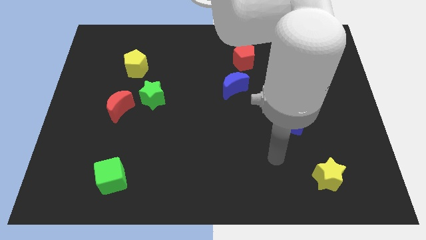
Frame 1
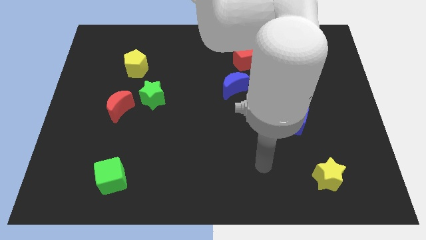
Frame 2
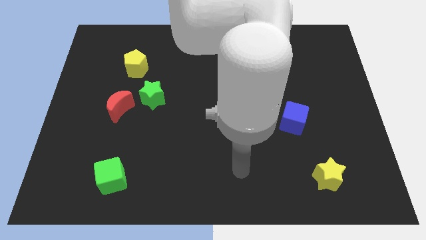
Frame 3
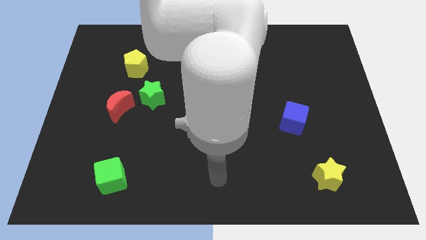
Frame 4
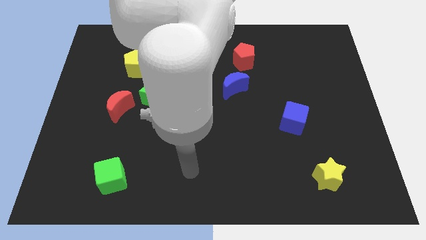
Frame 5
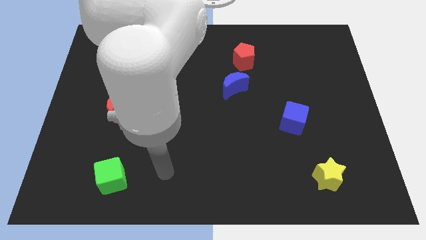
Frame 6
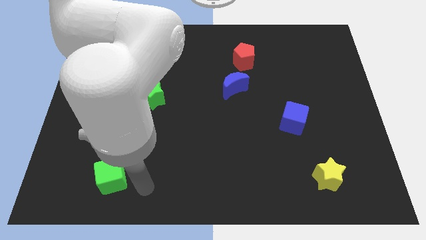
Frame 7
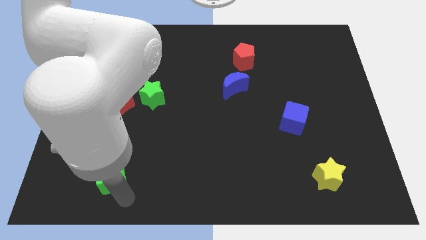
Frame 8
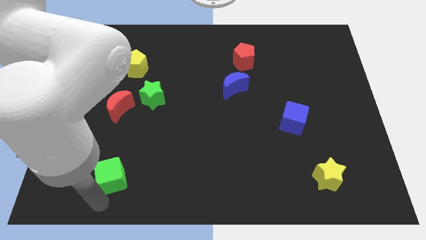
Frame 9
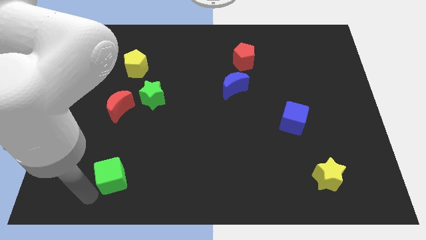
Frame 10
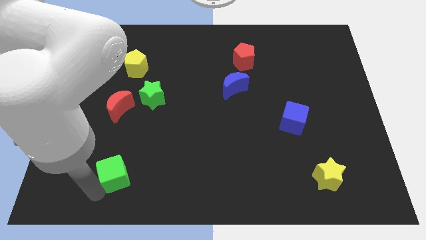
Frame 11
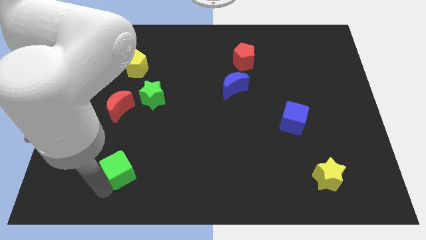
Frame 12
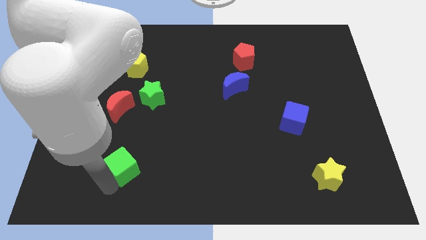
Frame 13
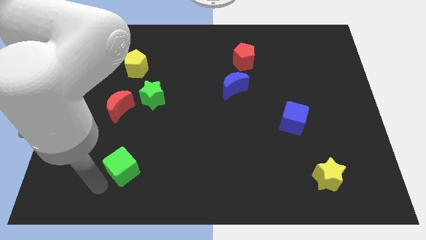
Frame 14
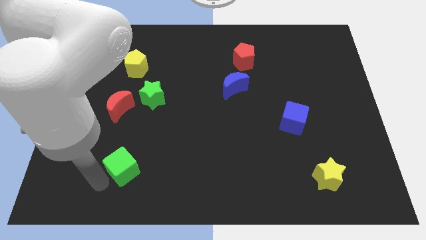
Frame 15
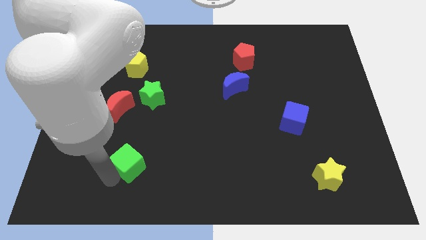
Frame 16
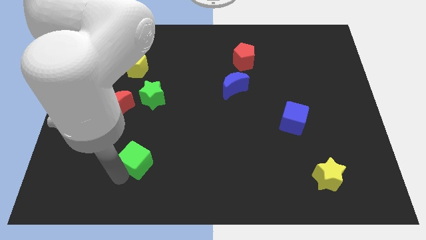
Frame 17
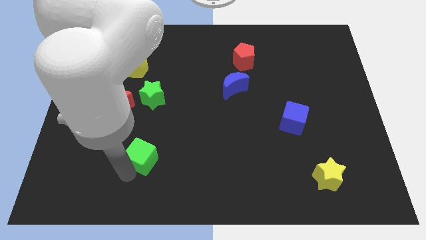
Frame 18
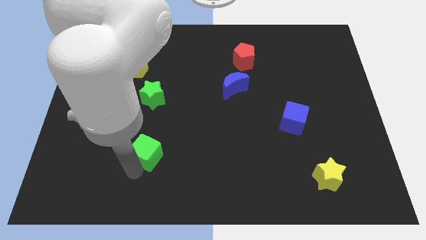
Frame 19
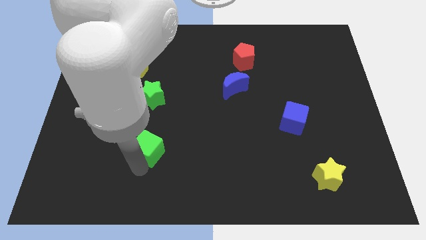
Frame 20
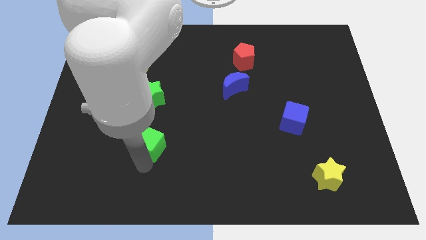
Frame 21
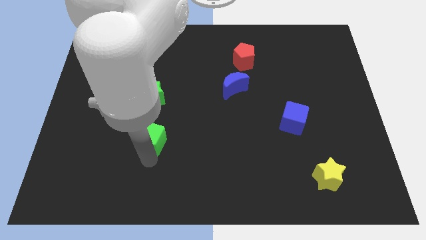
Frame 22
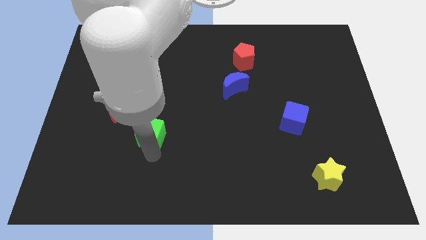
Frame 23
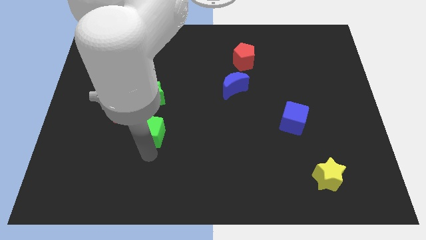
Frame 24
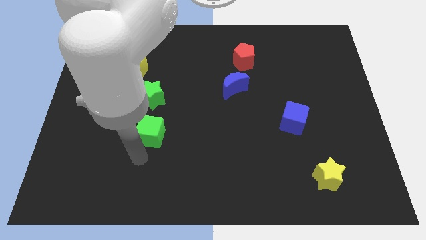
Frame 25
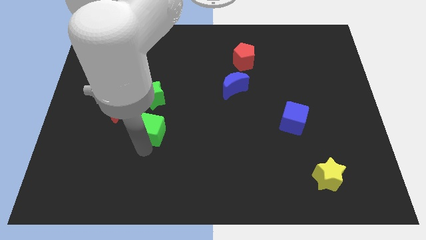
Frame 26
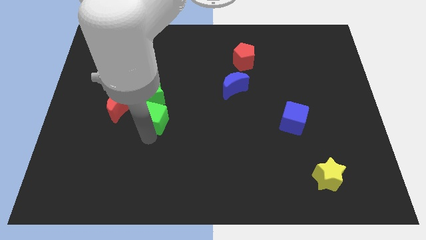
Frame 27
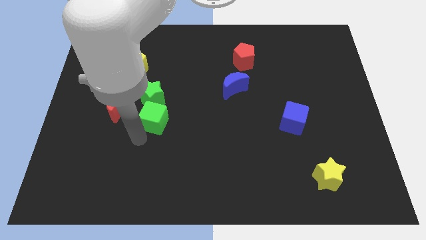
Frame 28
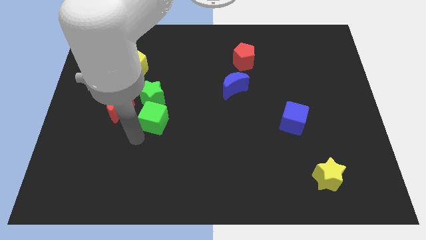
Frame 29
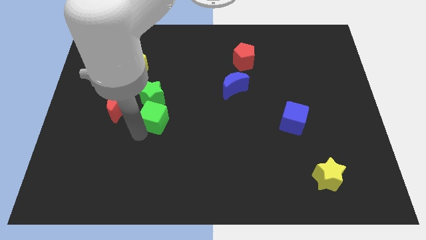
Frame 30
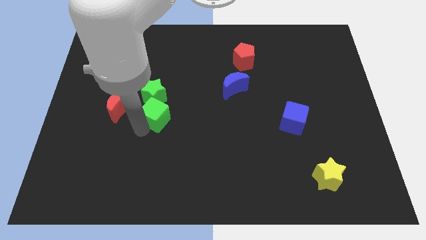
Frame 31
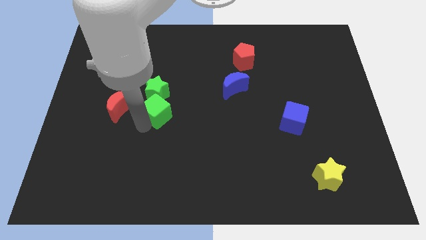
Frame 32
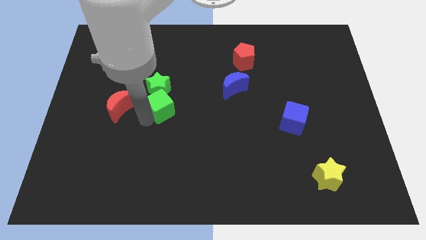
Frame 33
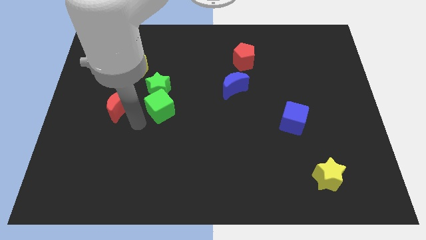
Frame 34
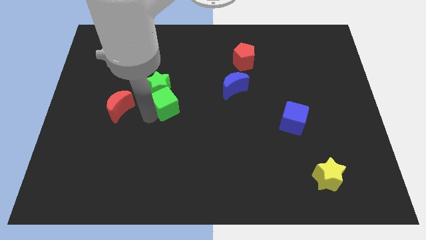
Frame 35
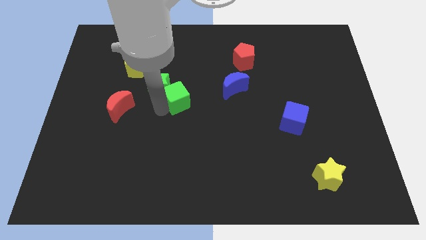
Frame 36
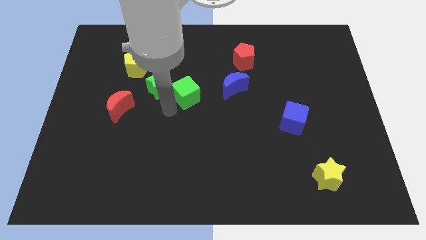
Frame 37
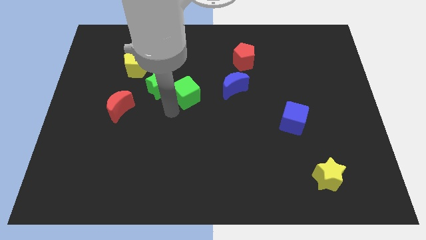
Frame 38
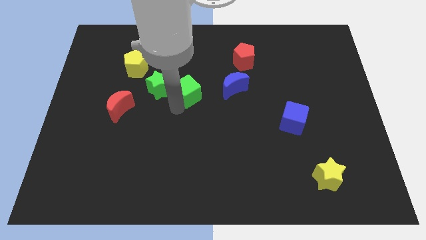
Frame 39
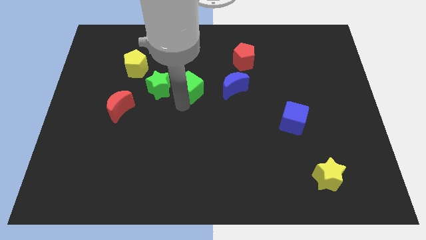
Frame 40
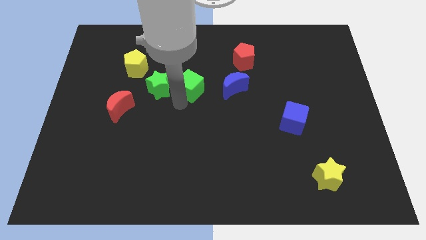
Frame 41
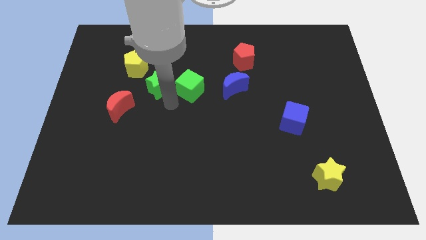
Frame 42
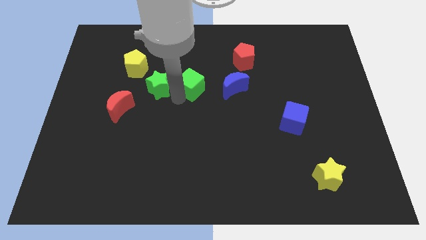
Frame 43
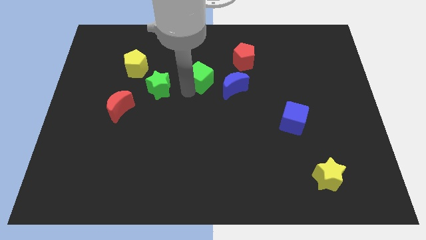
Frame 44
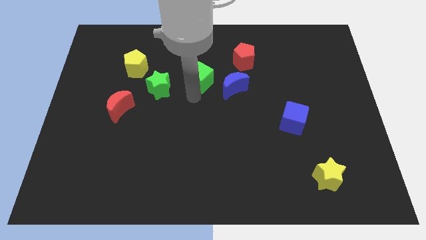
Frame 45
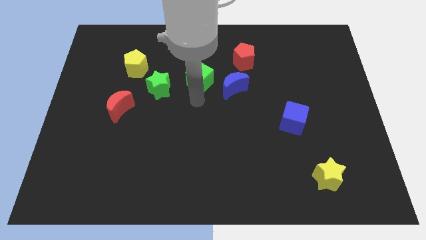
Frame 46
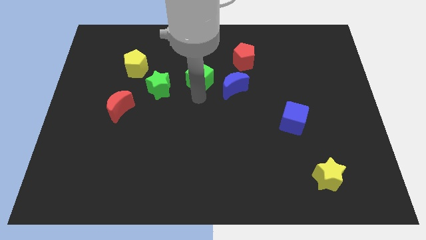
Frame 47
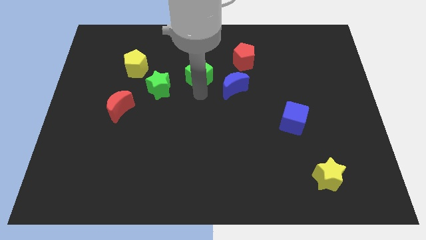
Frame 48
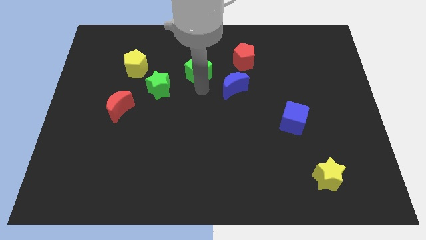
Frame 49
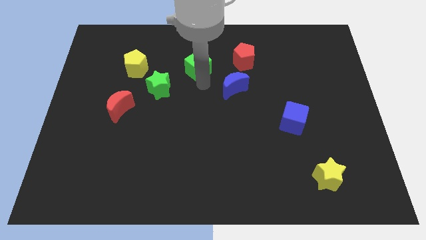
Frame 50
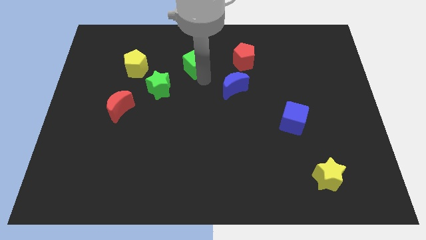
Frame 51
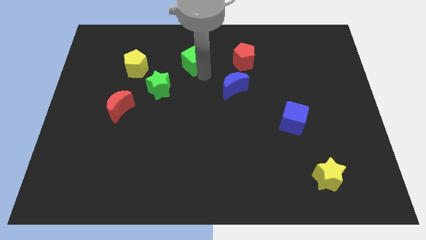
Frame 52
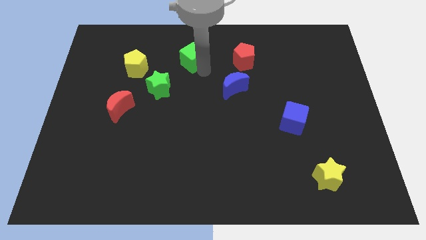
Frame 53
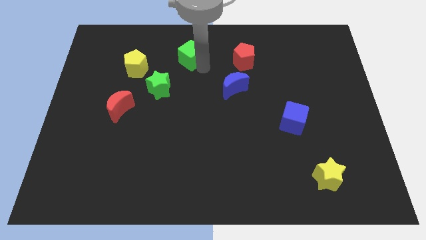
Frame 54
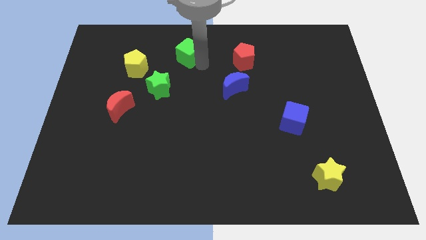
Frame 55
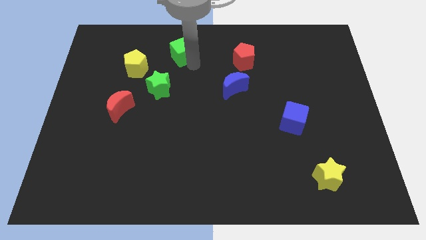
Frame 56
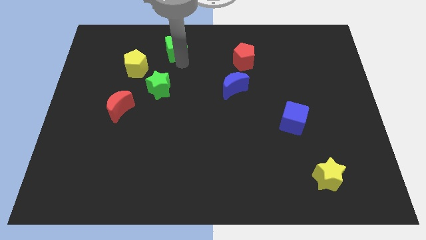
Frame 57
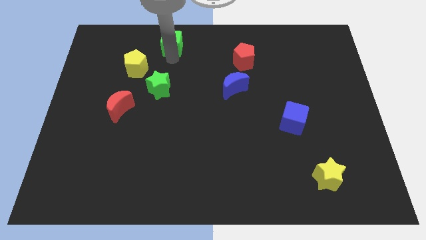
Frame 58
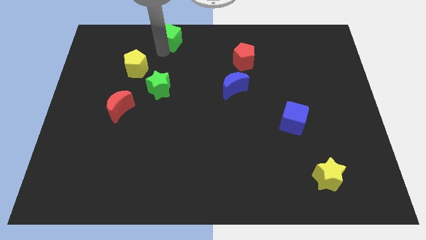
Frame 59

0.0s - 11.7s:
move the green cube to the towards your base
